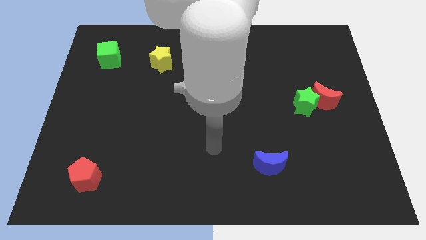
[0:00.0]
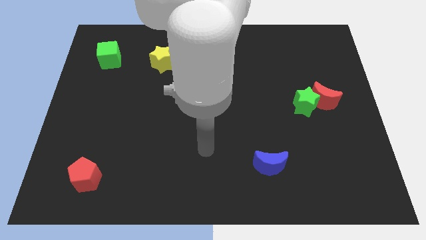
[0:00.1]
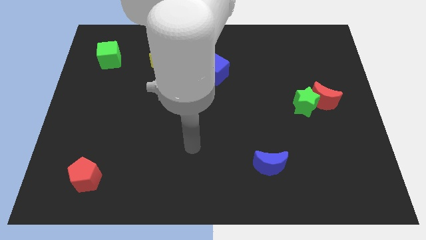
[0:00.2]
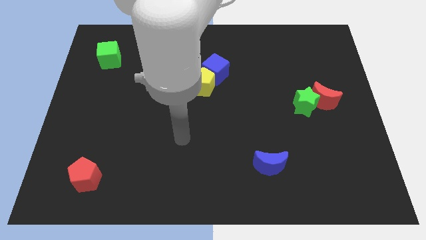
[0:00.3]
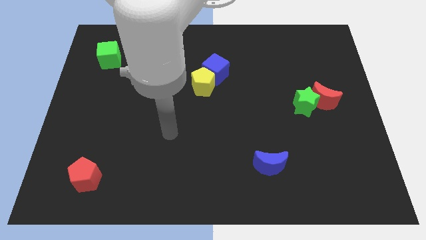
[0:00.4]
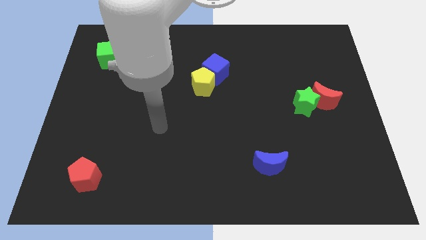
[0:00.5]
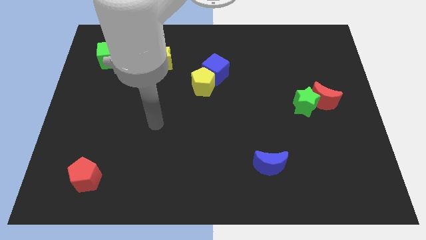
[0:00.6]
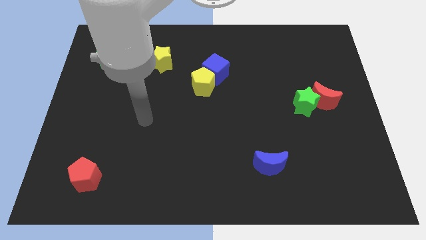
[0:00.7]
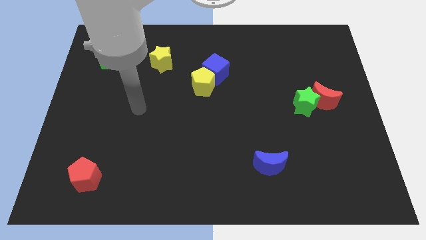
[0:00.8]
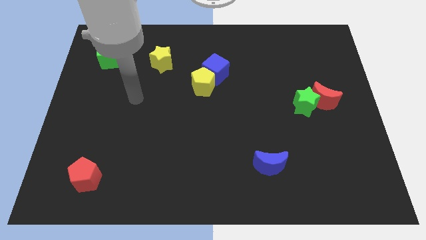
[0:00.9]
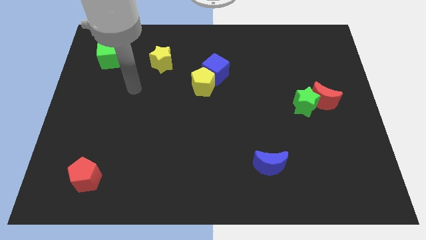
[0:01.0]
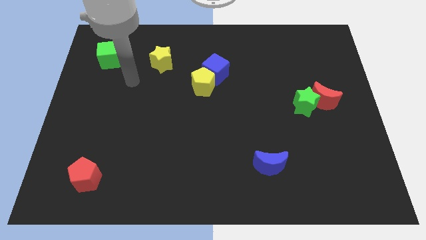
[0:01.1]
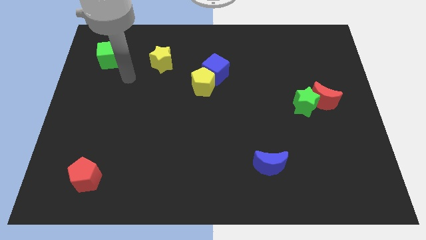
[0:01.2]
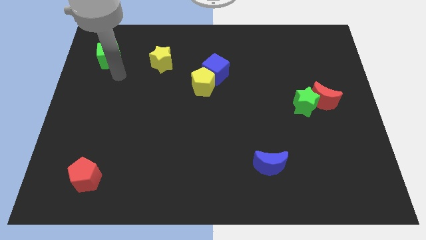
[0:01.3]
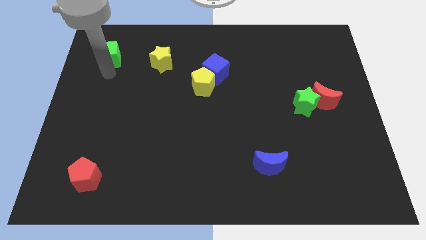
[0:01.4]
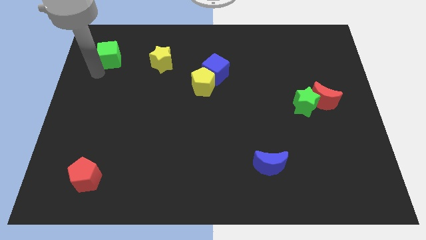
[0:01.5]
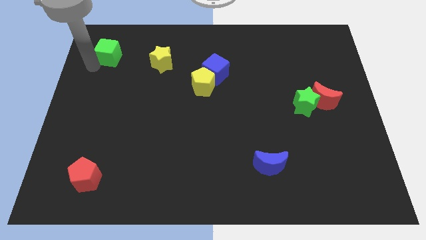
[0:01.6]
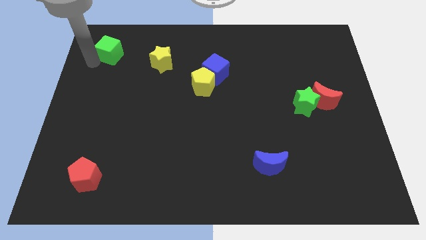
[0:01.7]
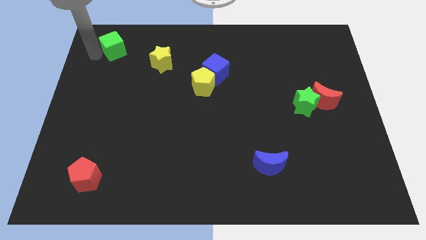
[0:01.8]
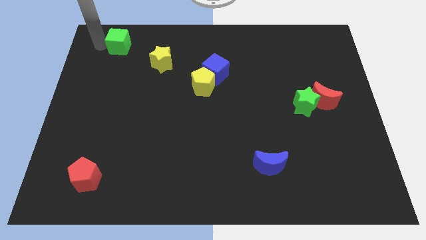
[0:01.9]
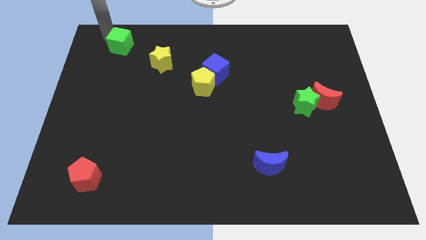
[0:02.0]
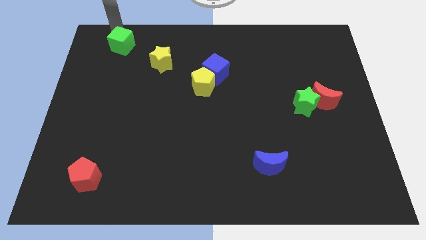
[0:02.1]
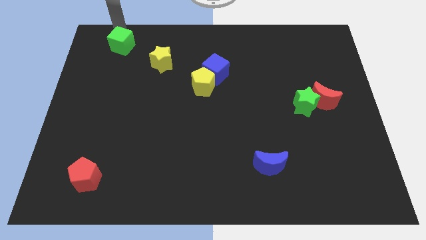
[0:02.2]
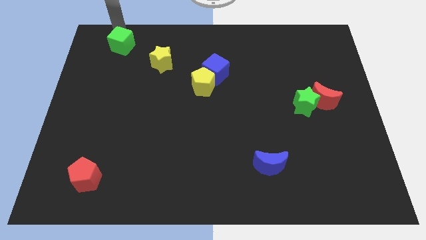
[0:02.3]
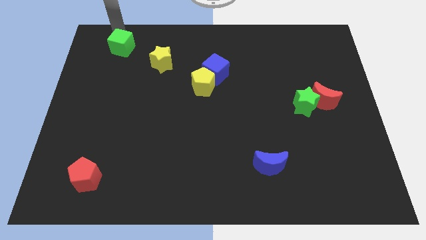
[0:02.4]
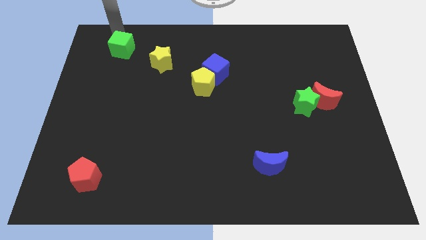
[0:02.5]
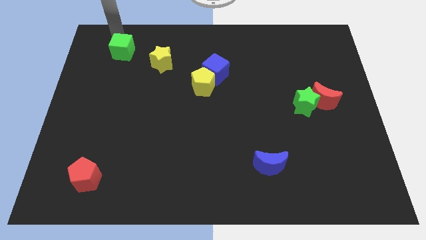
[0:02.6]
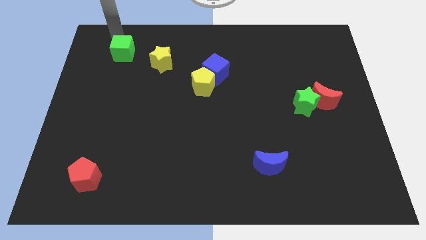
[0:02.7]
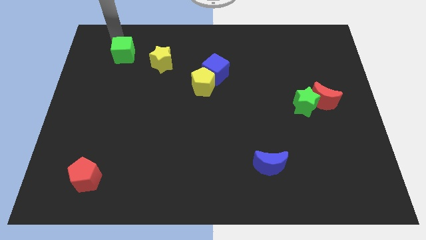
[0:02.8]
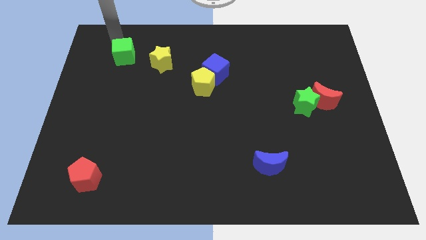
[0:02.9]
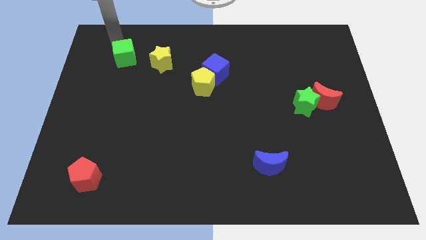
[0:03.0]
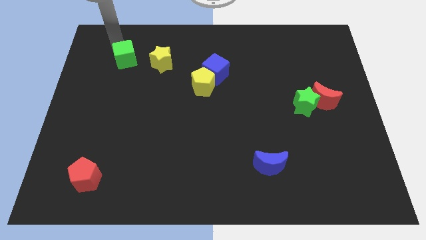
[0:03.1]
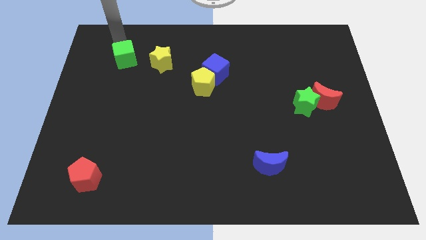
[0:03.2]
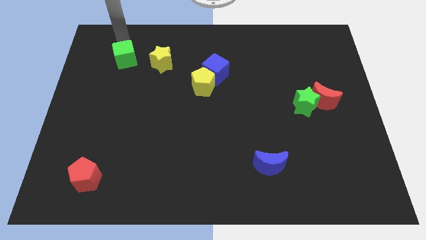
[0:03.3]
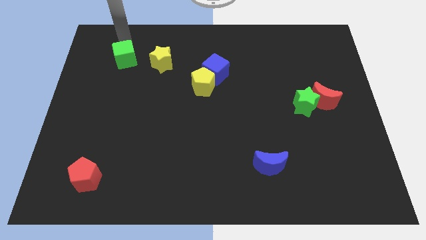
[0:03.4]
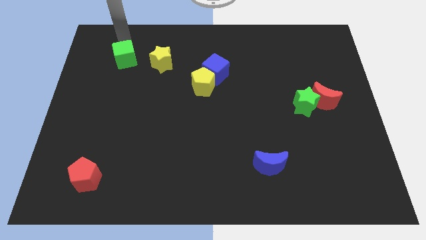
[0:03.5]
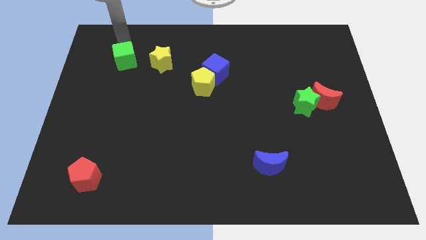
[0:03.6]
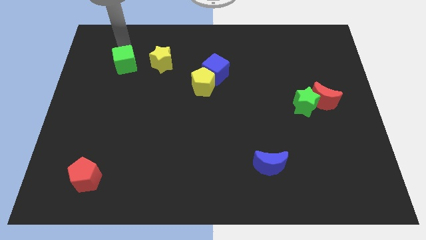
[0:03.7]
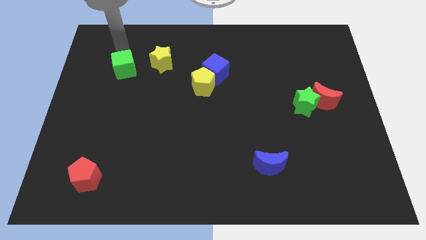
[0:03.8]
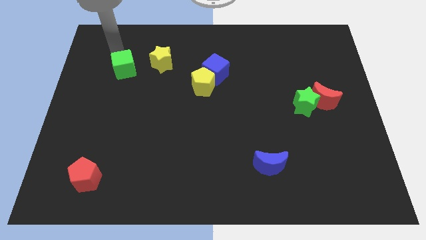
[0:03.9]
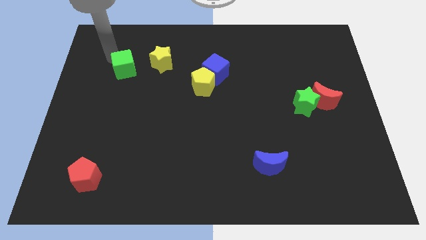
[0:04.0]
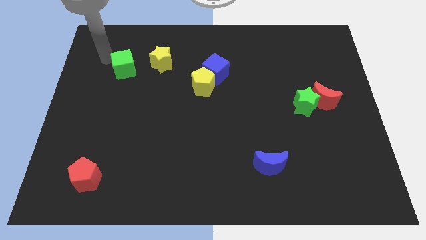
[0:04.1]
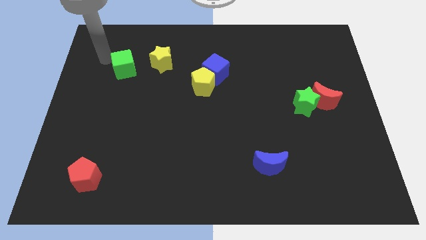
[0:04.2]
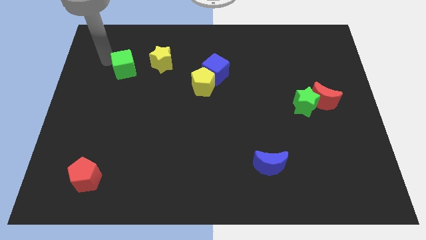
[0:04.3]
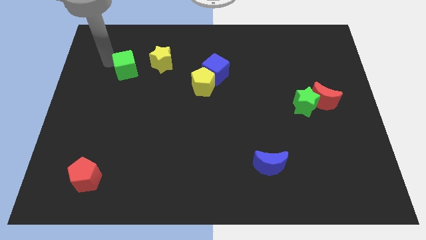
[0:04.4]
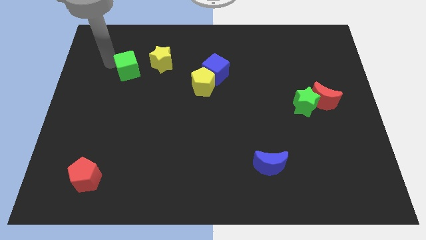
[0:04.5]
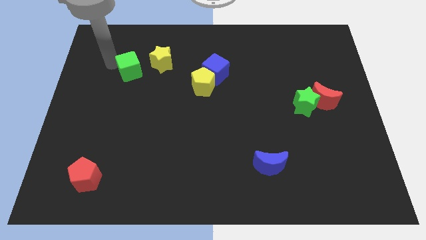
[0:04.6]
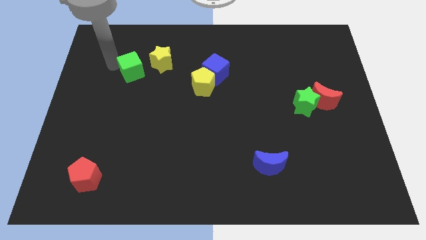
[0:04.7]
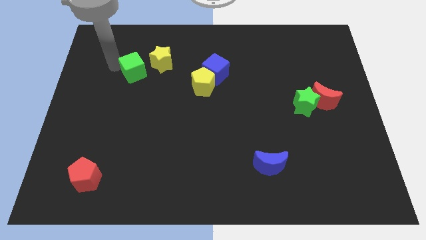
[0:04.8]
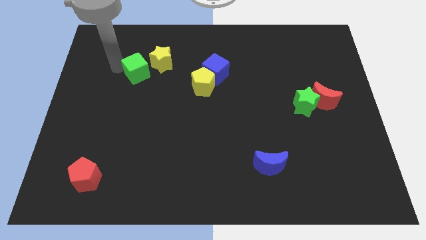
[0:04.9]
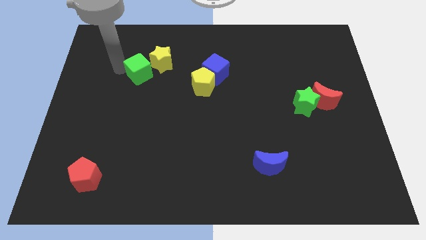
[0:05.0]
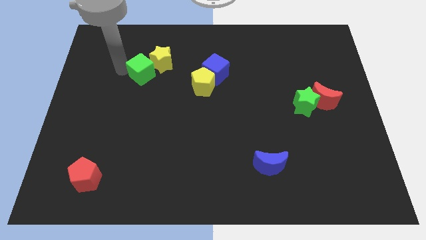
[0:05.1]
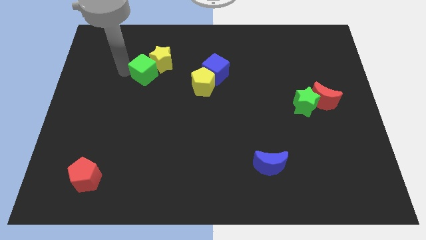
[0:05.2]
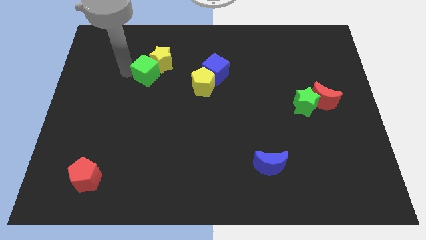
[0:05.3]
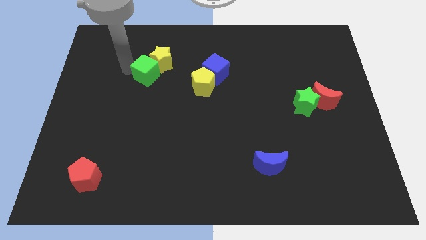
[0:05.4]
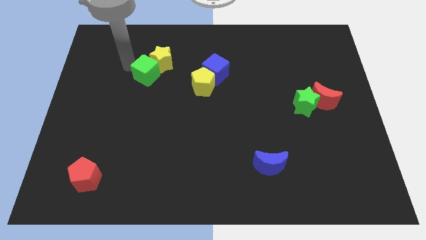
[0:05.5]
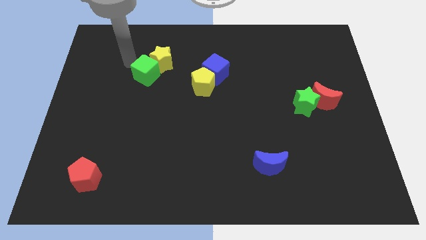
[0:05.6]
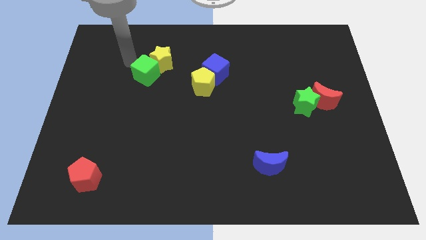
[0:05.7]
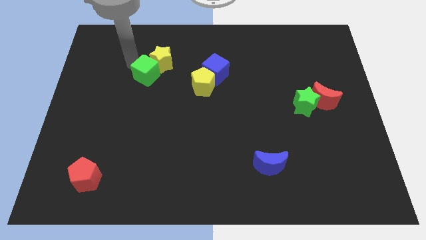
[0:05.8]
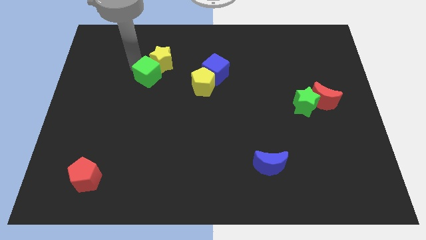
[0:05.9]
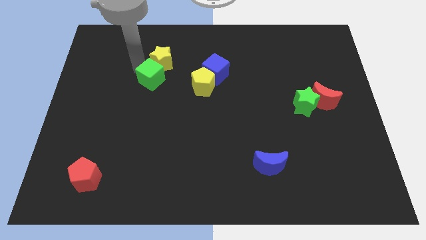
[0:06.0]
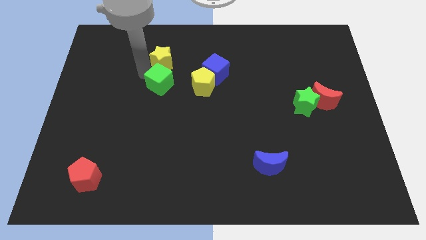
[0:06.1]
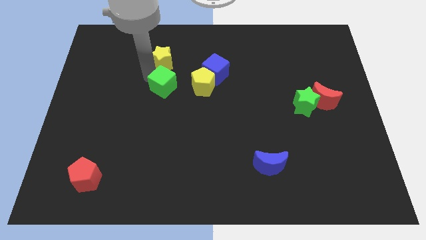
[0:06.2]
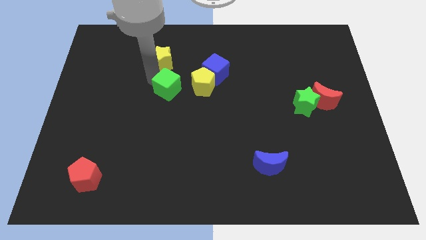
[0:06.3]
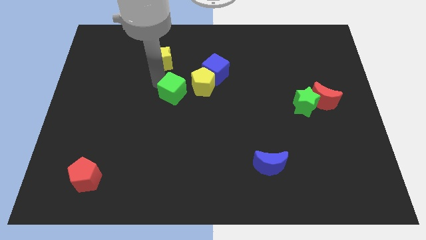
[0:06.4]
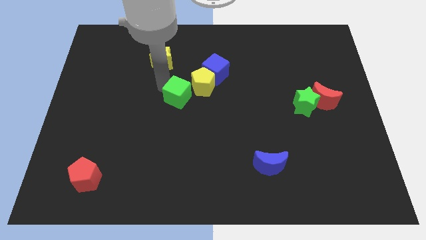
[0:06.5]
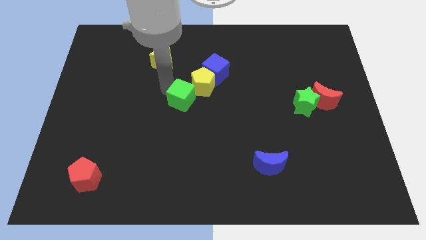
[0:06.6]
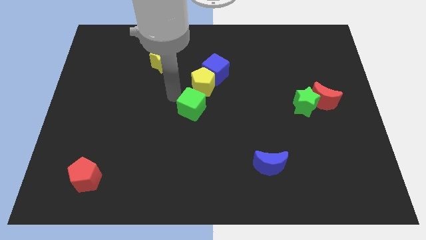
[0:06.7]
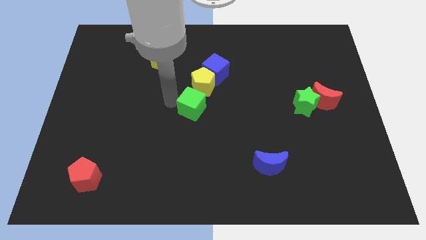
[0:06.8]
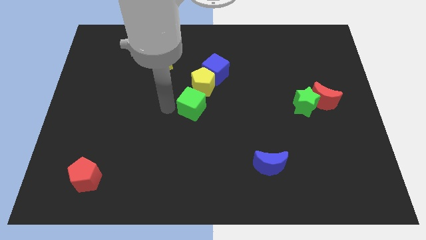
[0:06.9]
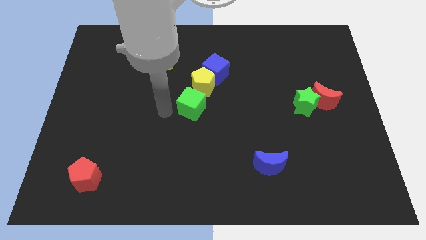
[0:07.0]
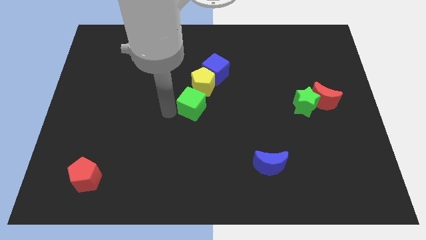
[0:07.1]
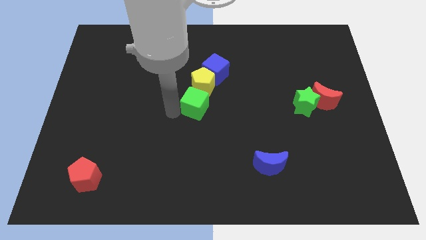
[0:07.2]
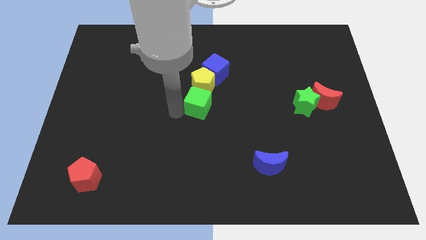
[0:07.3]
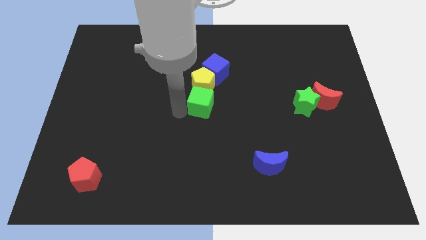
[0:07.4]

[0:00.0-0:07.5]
push the green cube to the bottom right side of the yellow pentagon

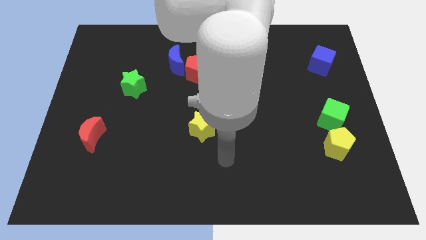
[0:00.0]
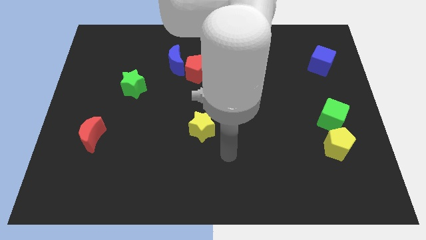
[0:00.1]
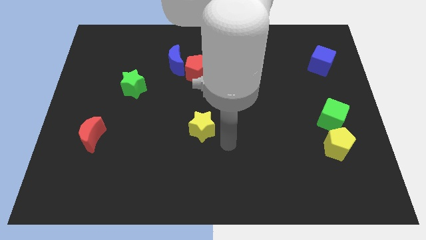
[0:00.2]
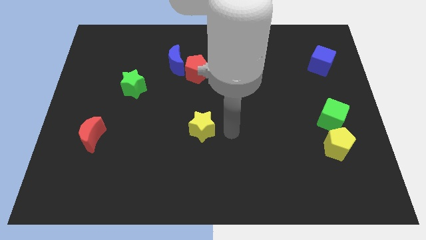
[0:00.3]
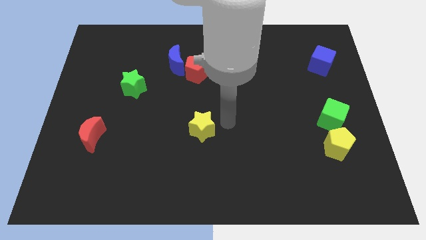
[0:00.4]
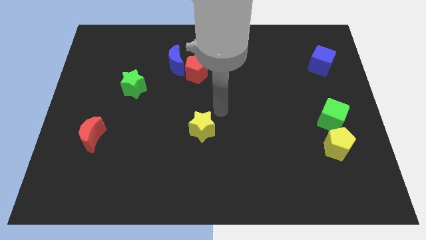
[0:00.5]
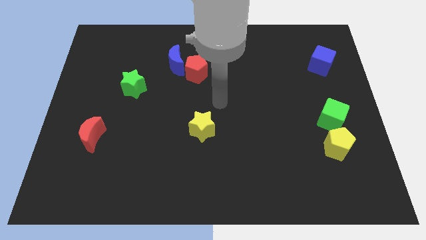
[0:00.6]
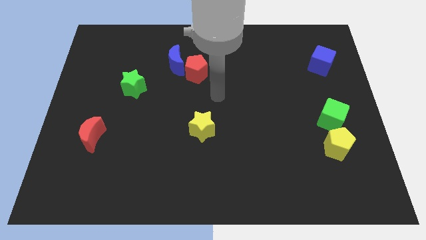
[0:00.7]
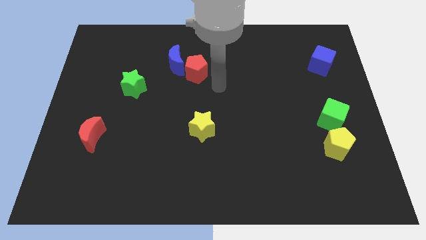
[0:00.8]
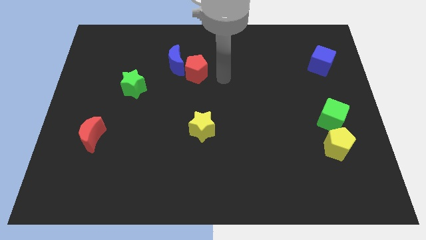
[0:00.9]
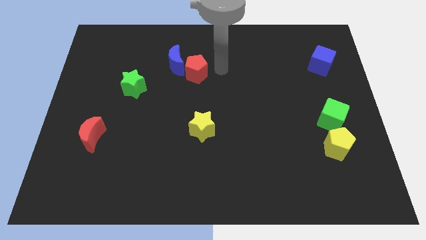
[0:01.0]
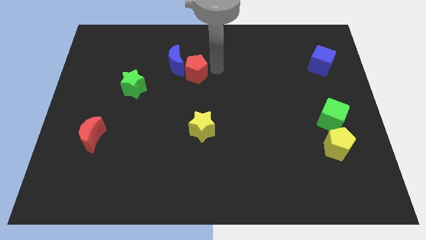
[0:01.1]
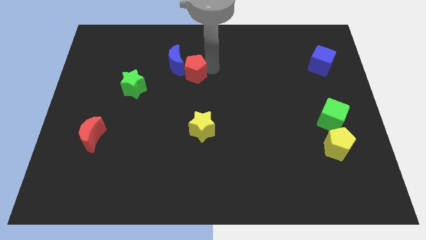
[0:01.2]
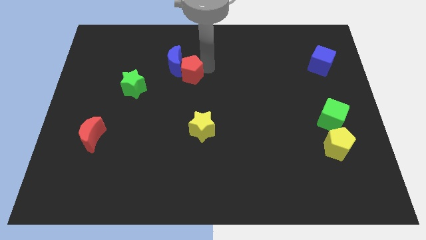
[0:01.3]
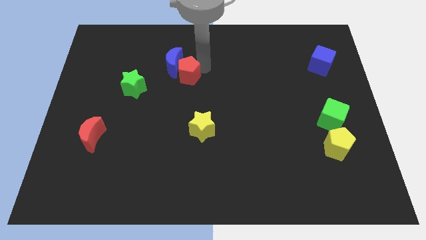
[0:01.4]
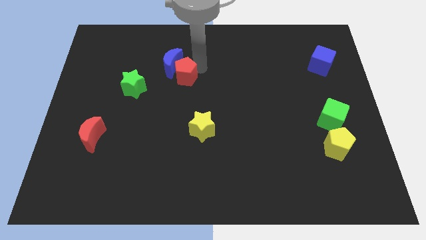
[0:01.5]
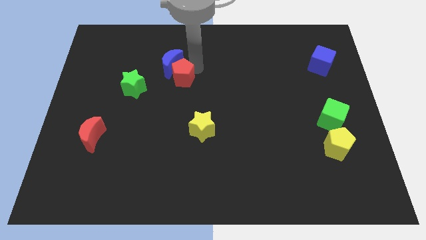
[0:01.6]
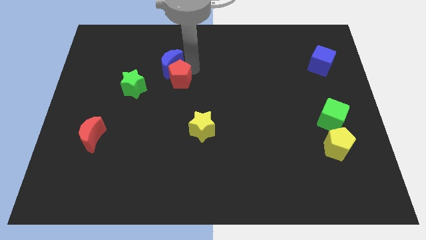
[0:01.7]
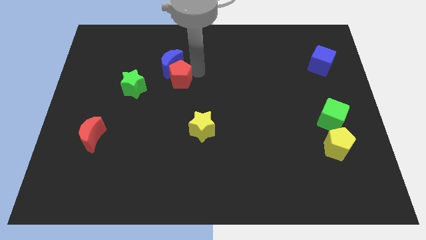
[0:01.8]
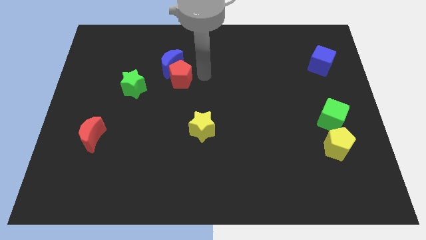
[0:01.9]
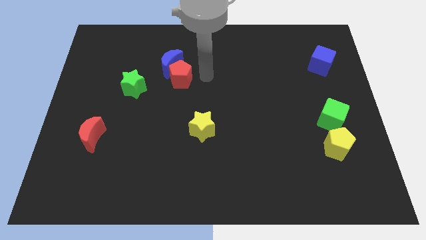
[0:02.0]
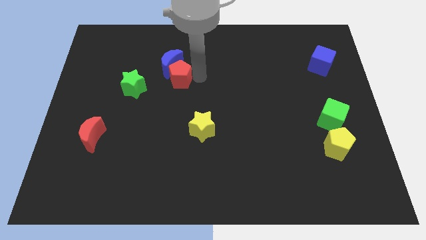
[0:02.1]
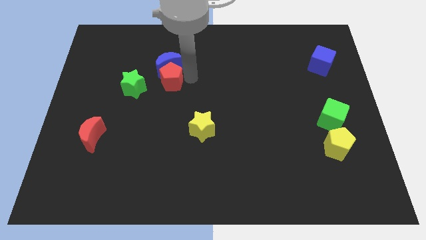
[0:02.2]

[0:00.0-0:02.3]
slide the red pentagon to the bottom left side of the blue moon
